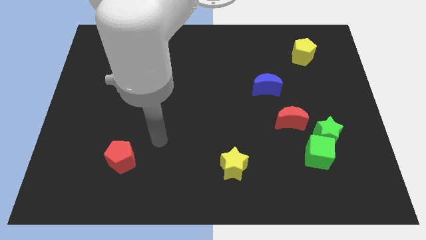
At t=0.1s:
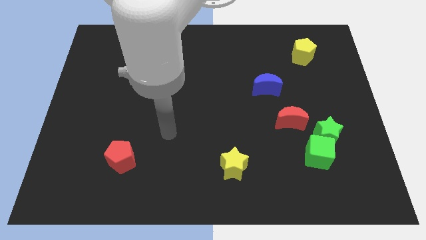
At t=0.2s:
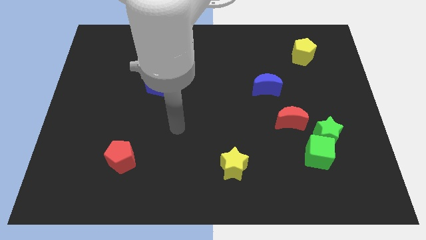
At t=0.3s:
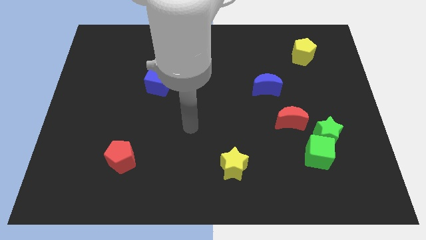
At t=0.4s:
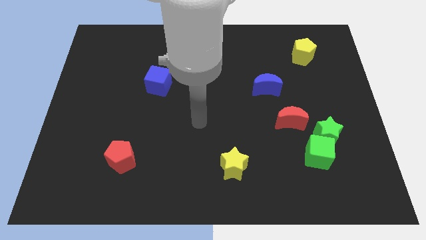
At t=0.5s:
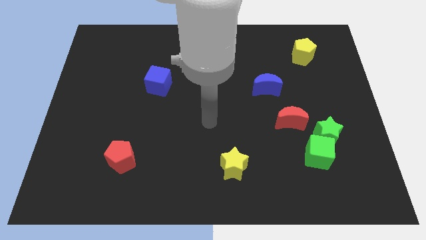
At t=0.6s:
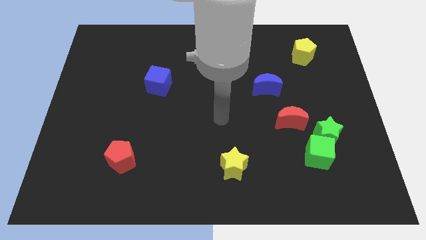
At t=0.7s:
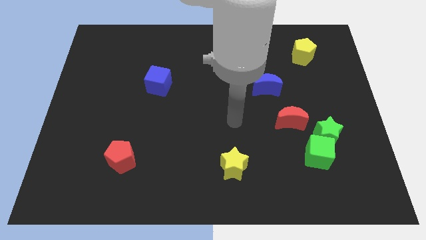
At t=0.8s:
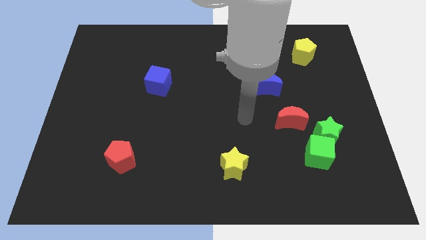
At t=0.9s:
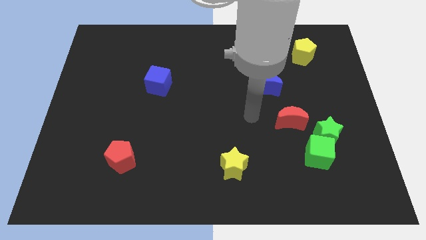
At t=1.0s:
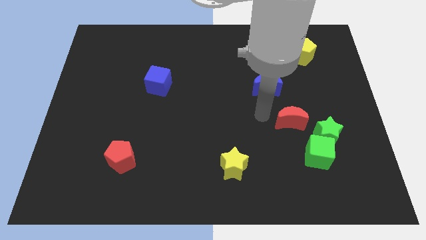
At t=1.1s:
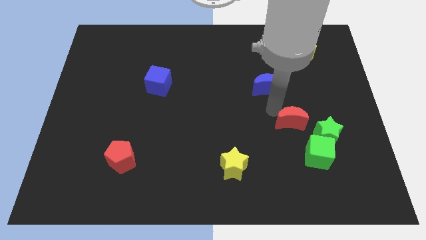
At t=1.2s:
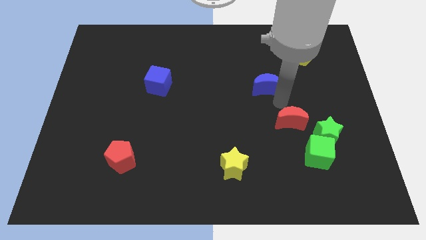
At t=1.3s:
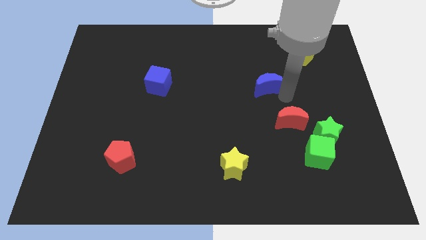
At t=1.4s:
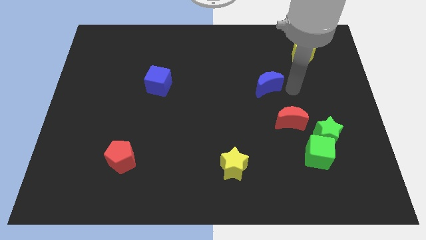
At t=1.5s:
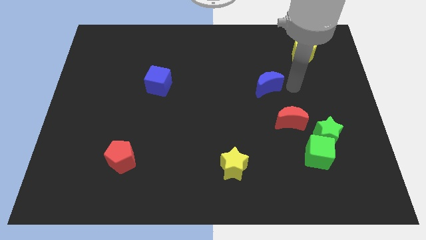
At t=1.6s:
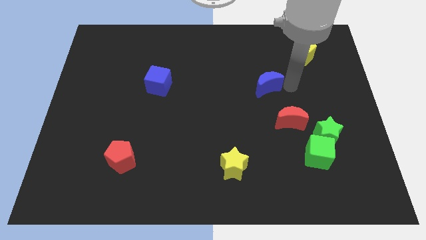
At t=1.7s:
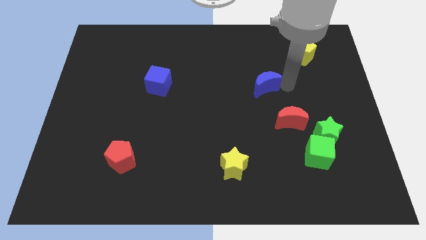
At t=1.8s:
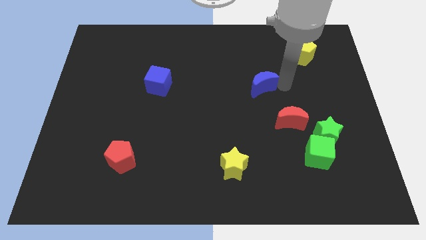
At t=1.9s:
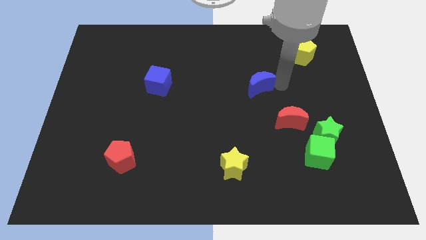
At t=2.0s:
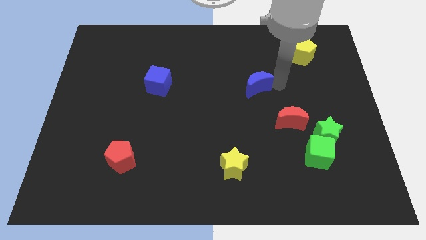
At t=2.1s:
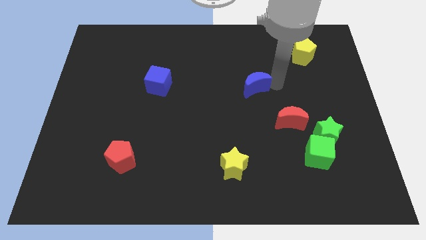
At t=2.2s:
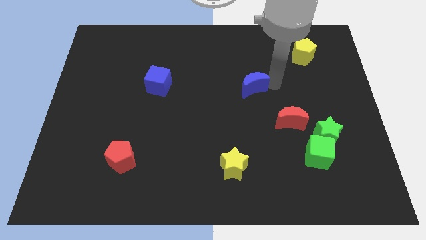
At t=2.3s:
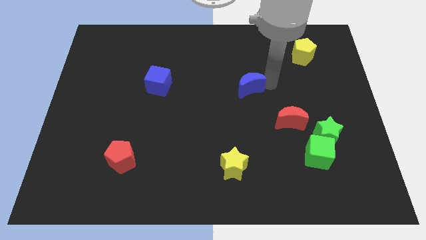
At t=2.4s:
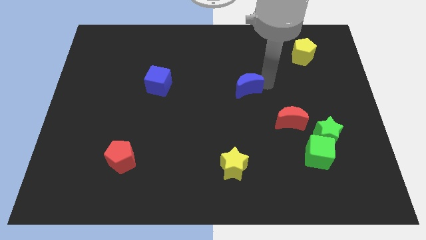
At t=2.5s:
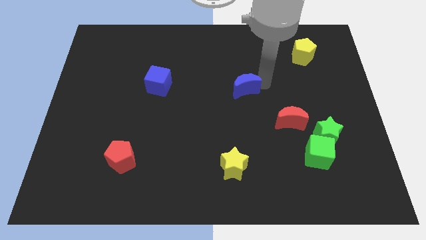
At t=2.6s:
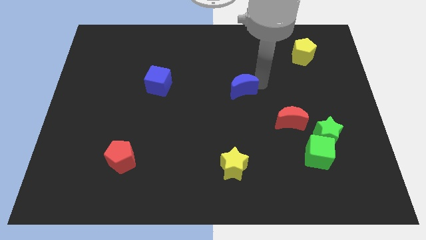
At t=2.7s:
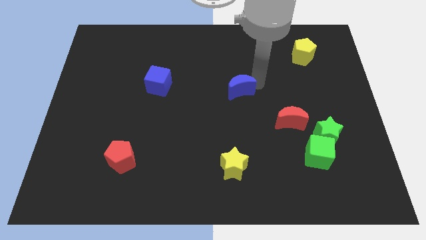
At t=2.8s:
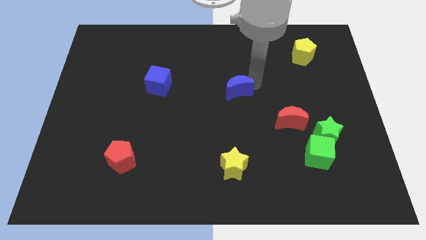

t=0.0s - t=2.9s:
slightly slide the blue moon left

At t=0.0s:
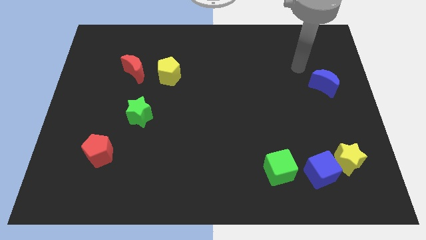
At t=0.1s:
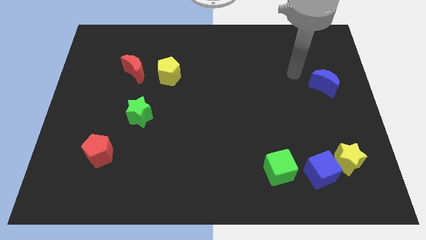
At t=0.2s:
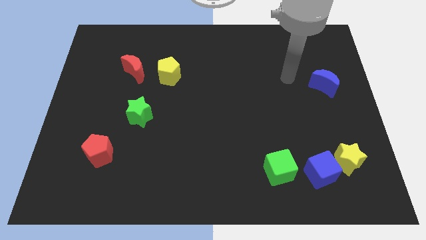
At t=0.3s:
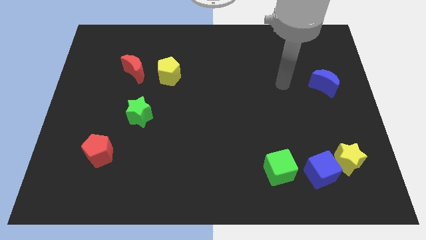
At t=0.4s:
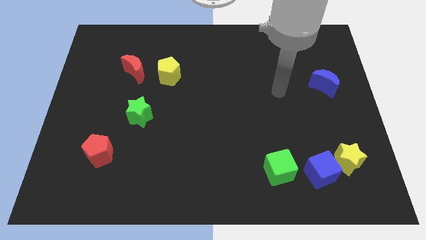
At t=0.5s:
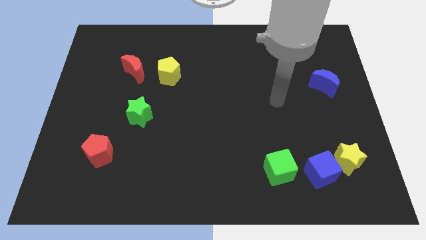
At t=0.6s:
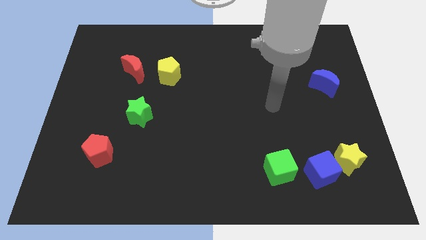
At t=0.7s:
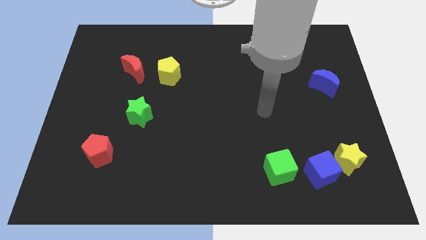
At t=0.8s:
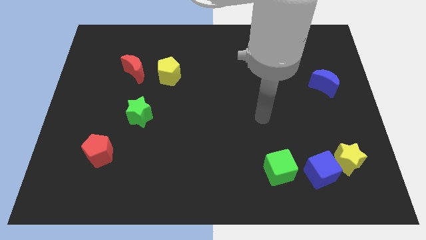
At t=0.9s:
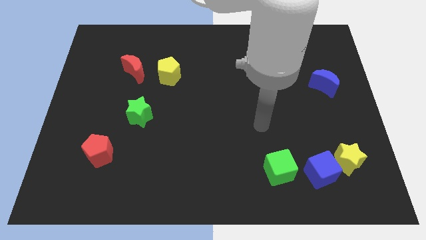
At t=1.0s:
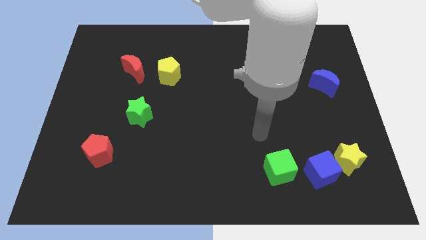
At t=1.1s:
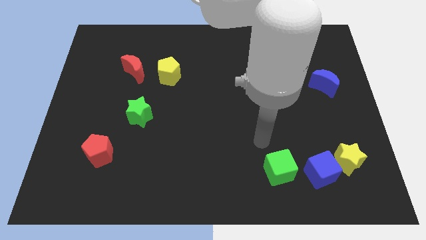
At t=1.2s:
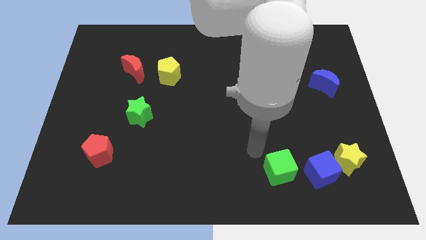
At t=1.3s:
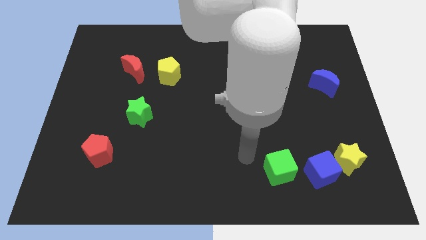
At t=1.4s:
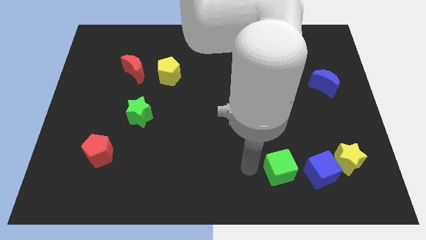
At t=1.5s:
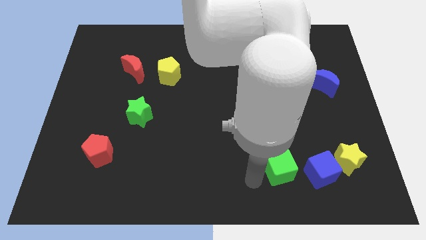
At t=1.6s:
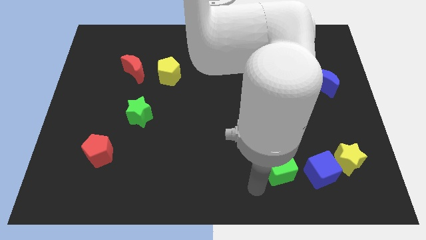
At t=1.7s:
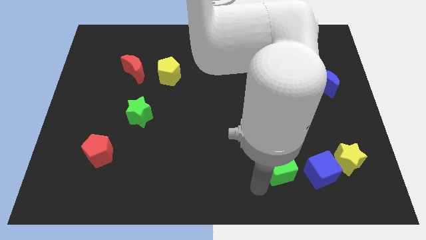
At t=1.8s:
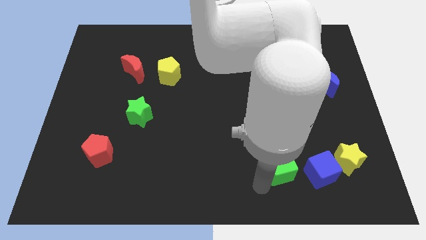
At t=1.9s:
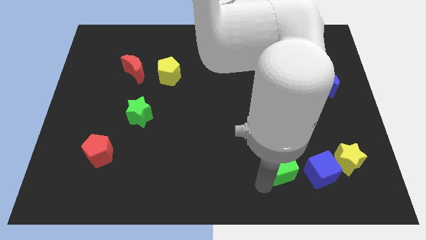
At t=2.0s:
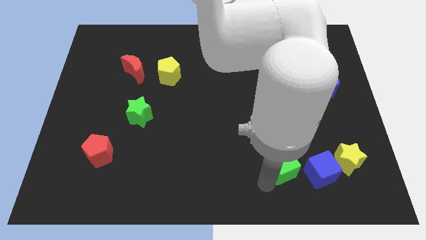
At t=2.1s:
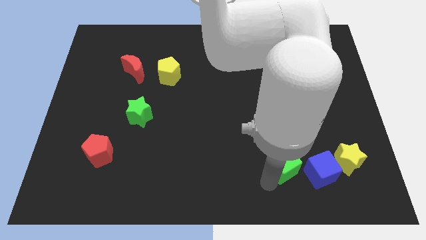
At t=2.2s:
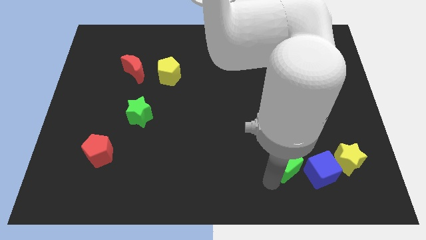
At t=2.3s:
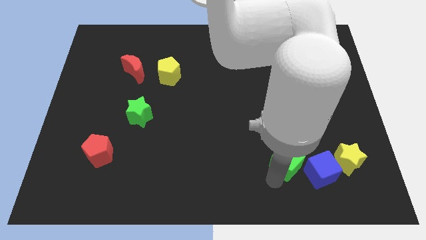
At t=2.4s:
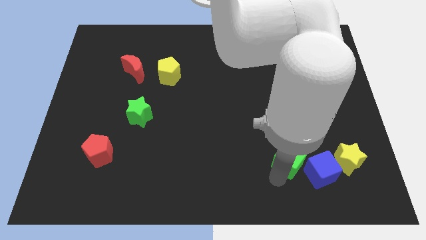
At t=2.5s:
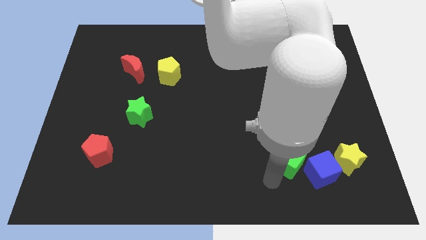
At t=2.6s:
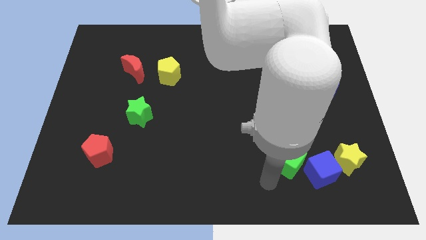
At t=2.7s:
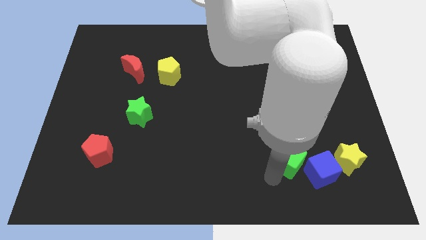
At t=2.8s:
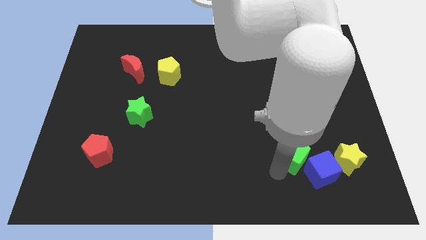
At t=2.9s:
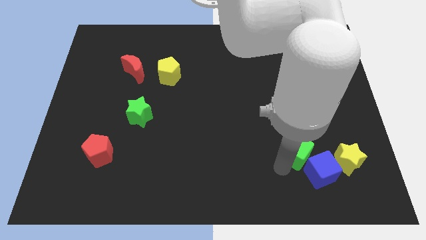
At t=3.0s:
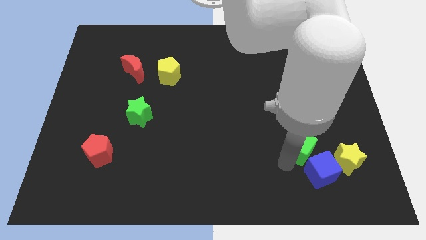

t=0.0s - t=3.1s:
slightly push the green cube up and then right

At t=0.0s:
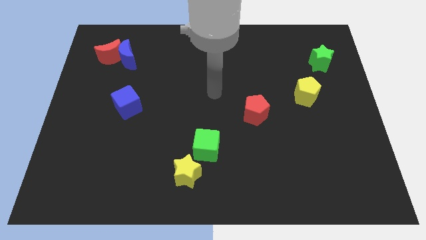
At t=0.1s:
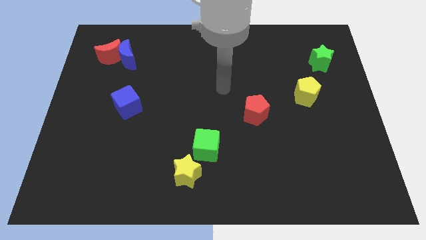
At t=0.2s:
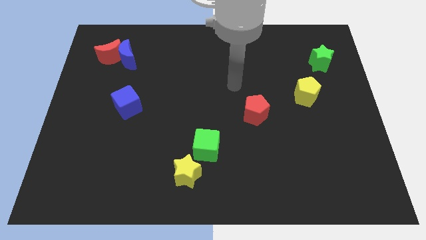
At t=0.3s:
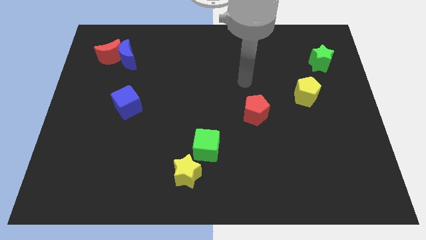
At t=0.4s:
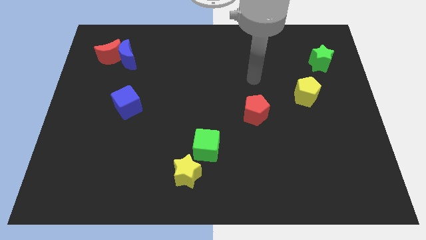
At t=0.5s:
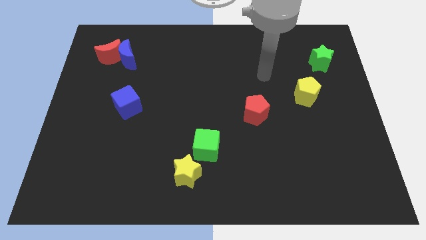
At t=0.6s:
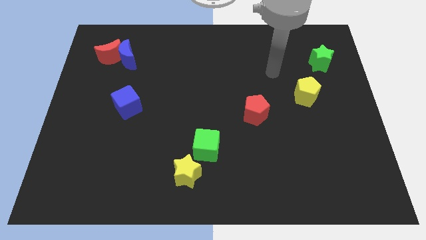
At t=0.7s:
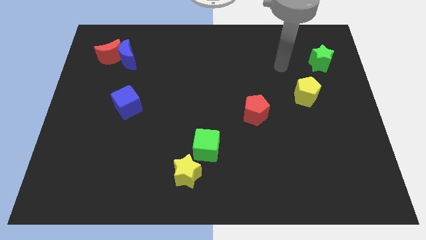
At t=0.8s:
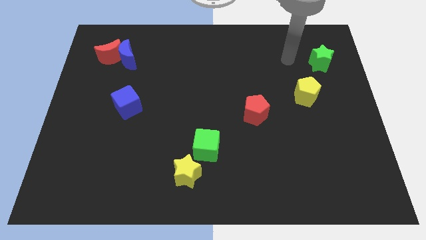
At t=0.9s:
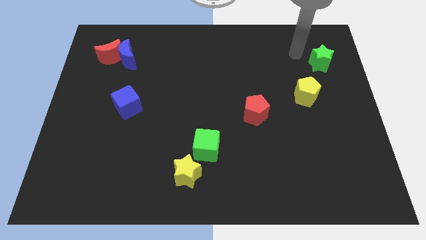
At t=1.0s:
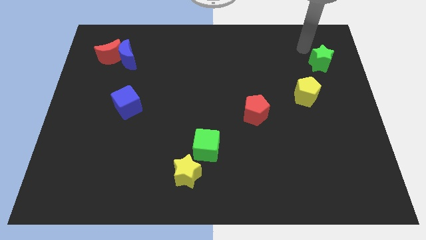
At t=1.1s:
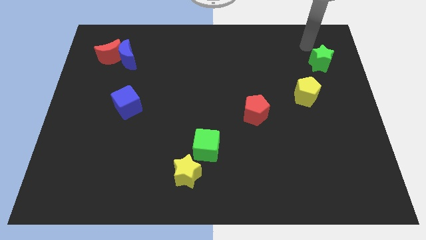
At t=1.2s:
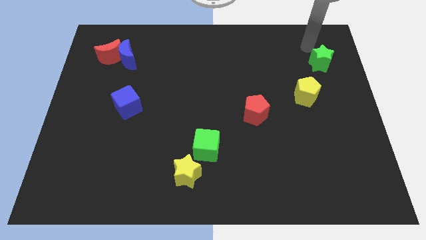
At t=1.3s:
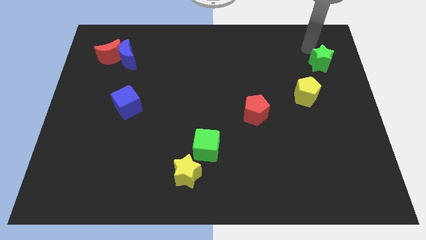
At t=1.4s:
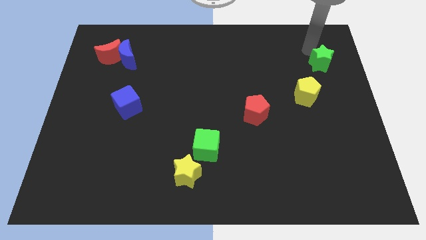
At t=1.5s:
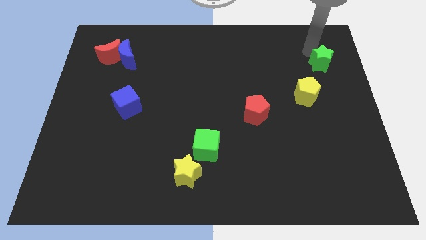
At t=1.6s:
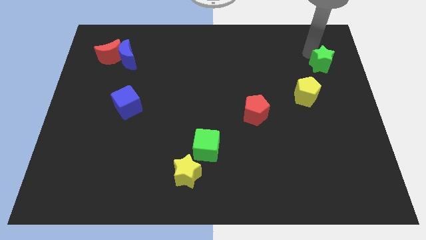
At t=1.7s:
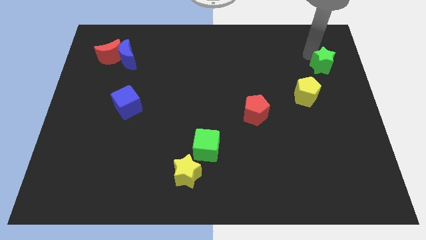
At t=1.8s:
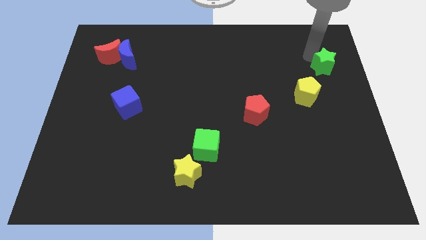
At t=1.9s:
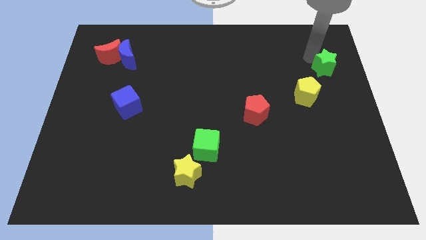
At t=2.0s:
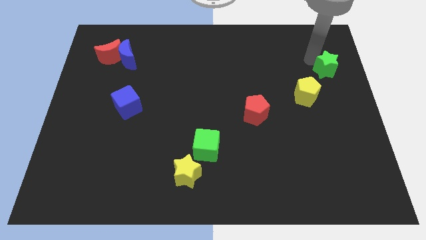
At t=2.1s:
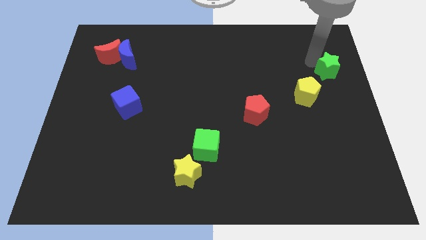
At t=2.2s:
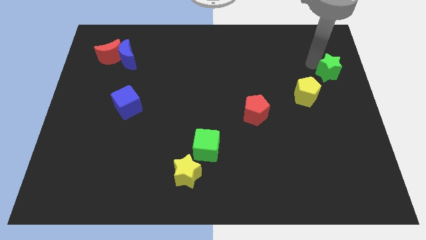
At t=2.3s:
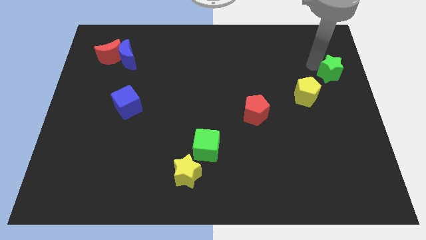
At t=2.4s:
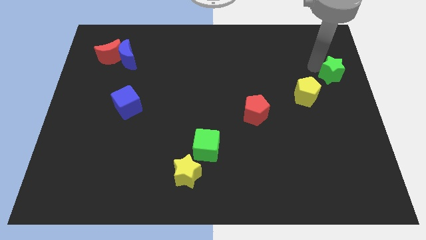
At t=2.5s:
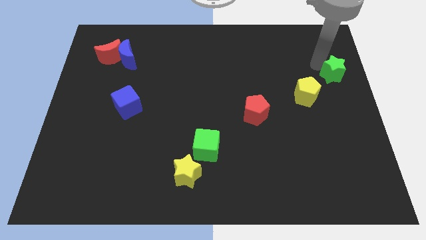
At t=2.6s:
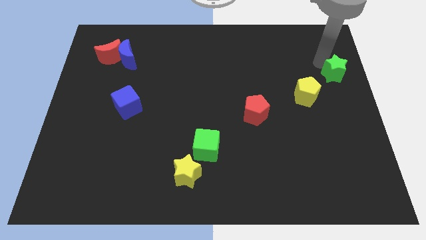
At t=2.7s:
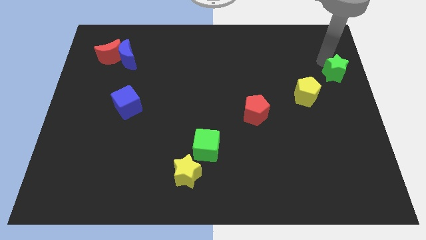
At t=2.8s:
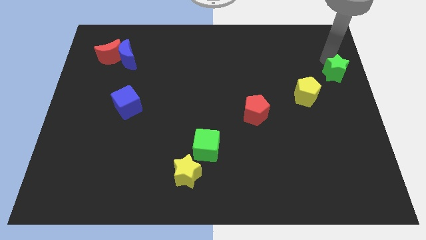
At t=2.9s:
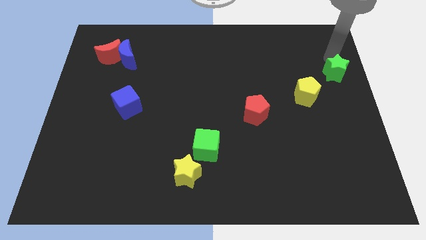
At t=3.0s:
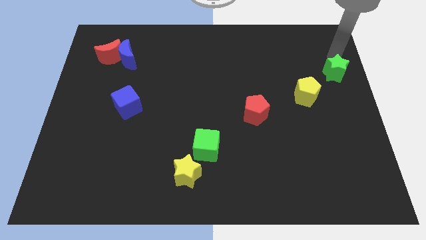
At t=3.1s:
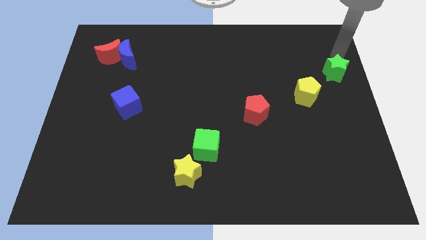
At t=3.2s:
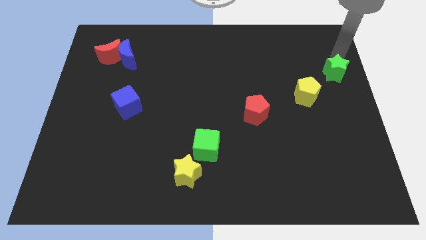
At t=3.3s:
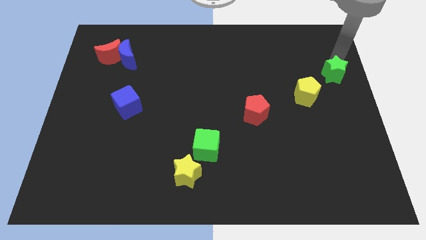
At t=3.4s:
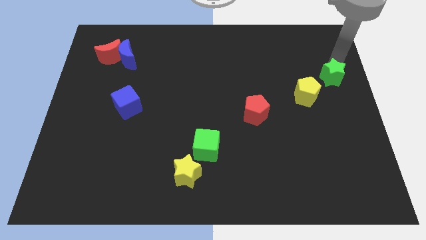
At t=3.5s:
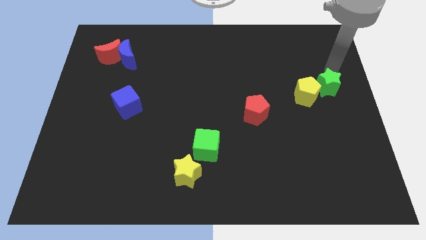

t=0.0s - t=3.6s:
move the green star downwards somewhat
